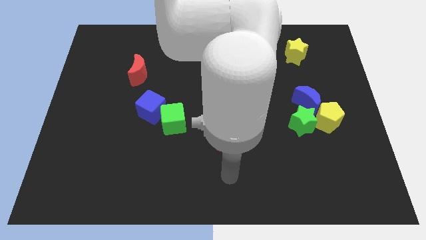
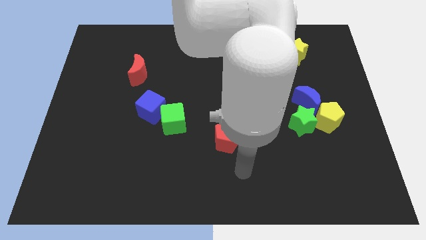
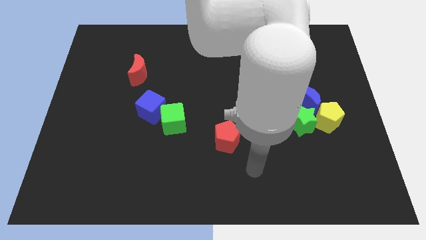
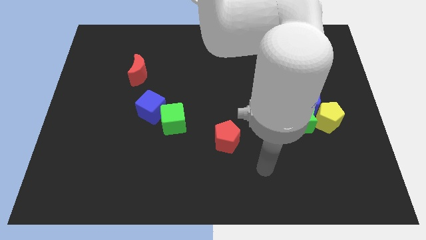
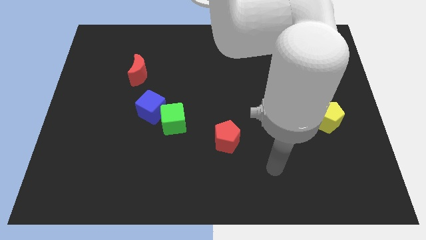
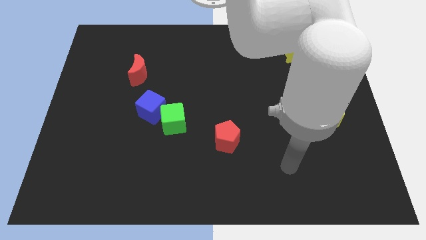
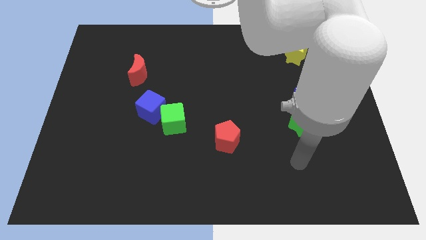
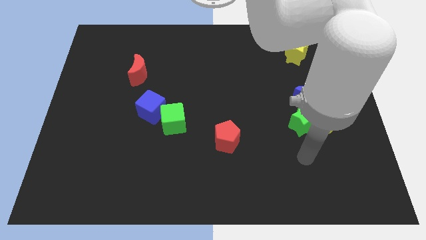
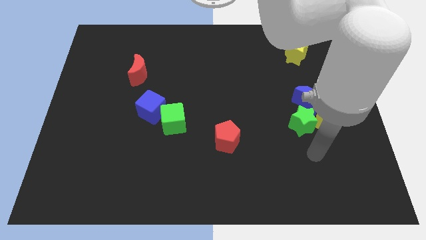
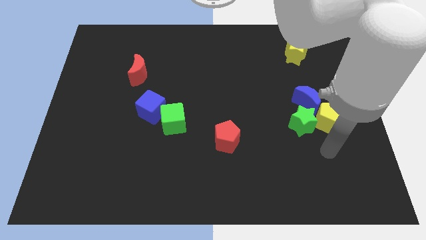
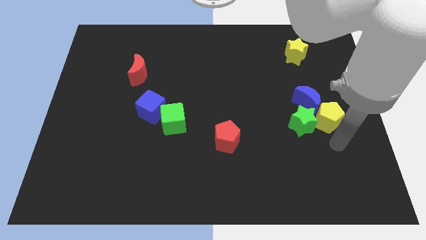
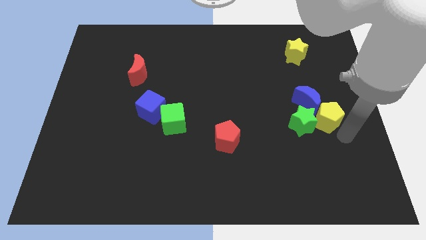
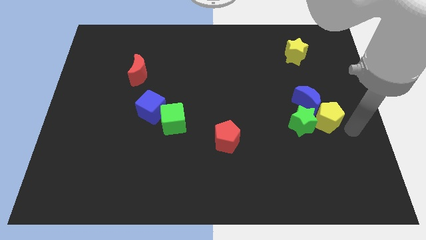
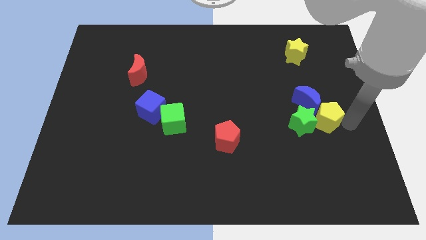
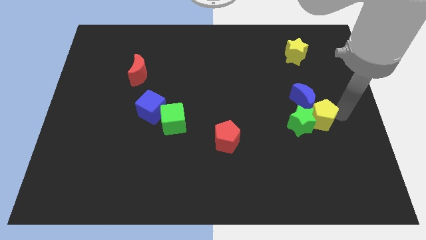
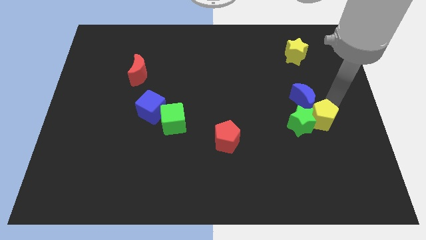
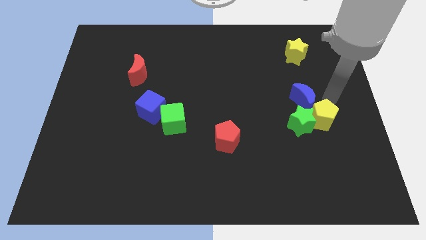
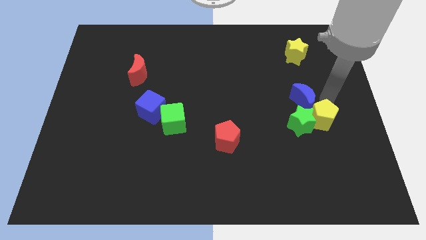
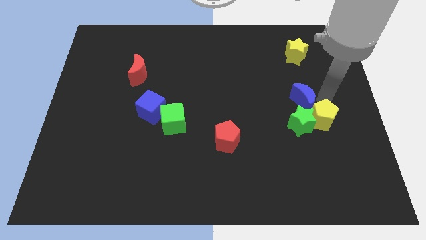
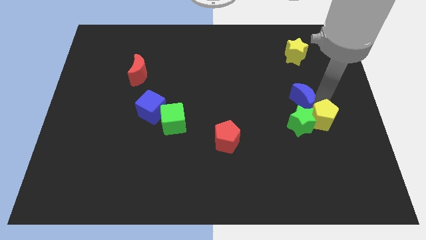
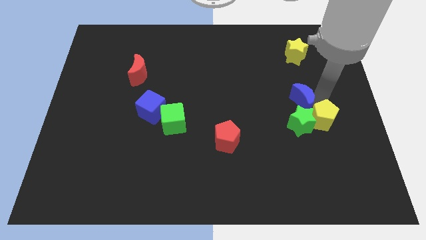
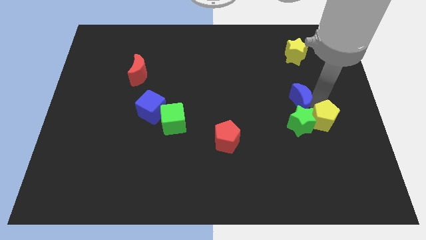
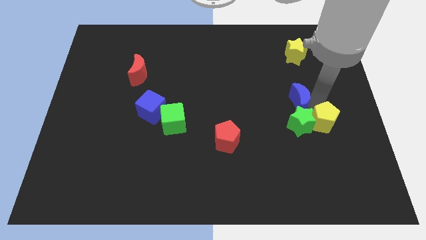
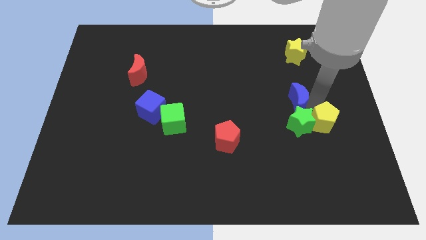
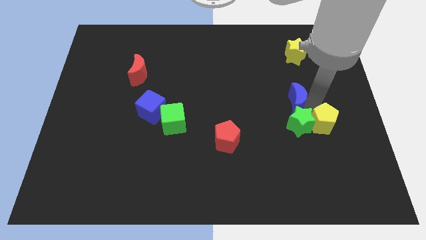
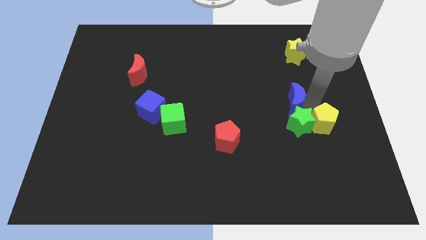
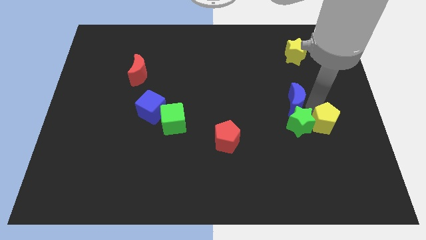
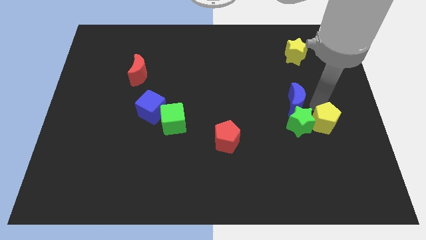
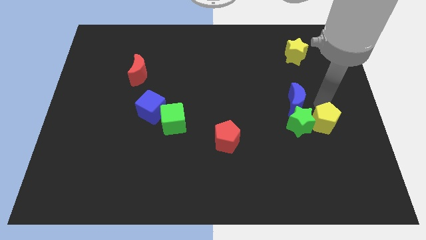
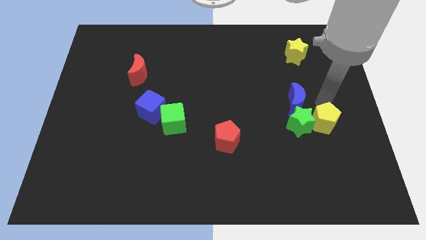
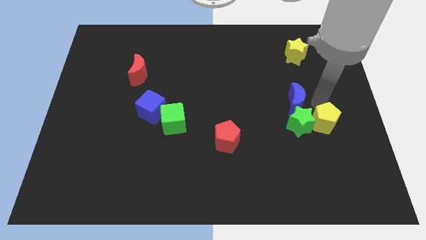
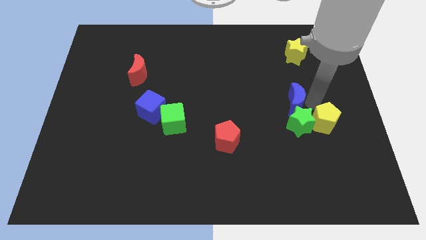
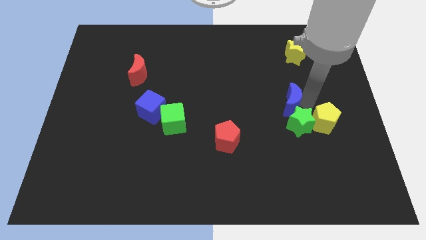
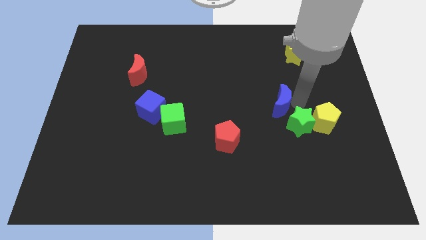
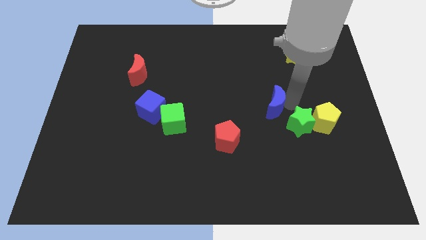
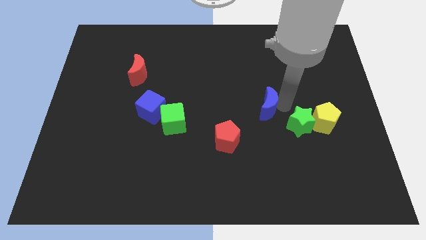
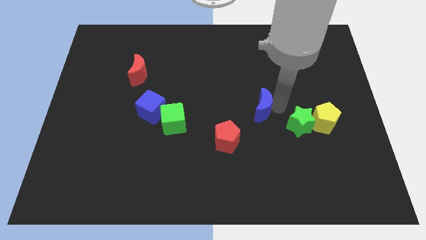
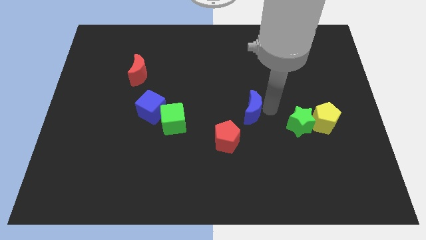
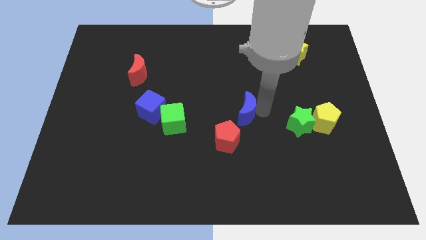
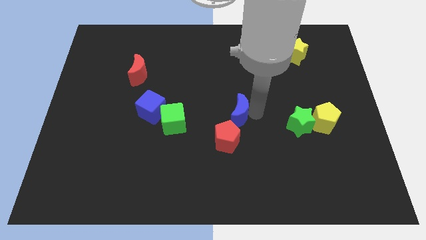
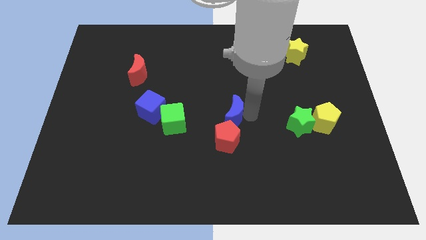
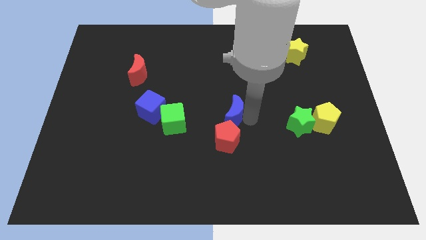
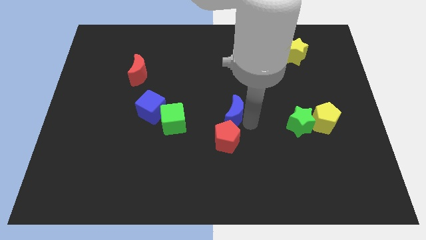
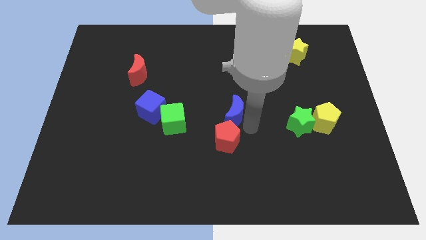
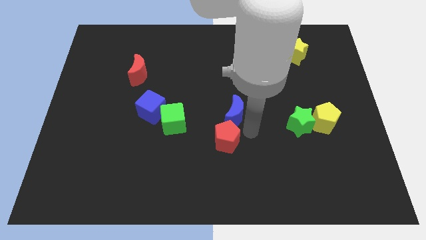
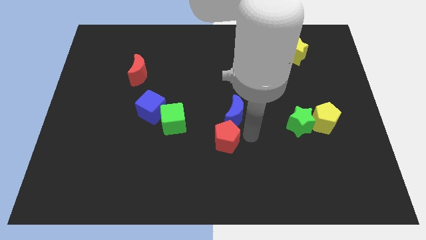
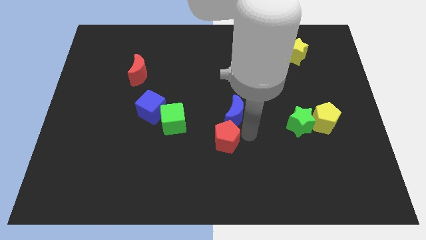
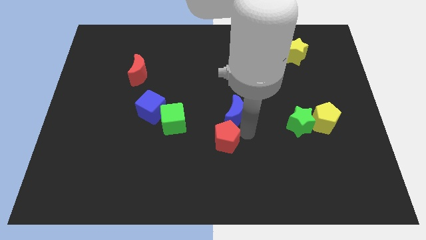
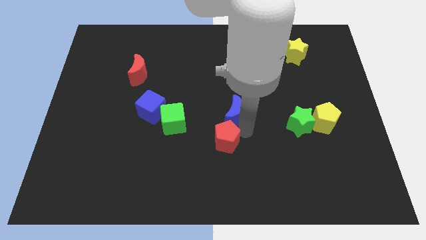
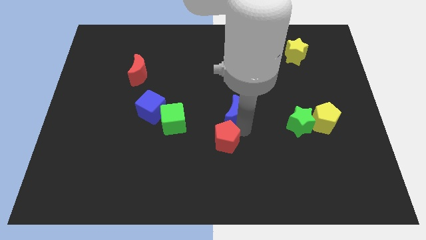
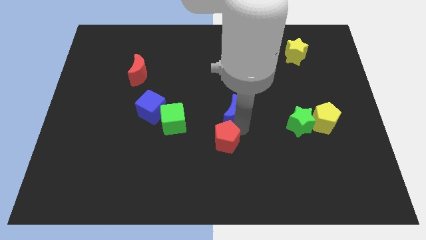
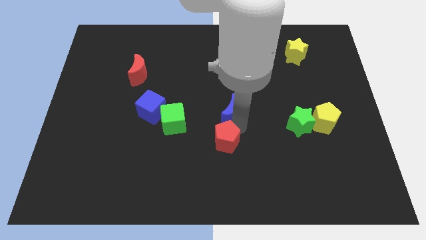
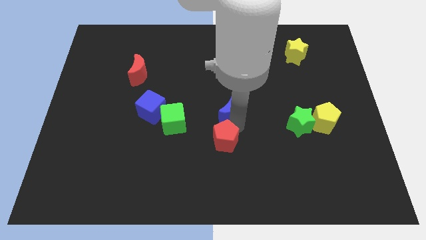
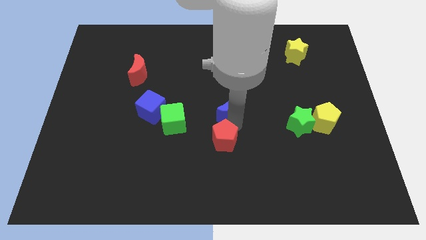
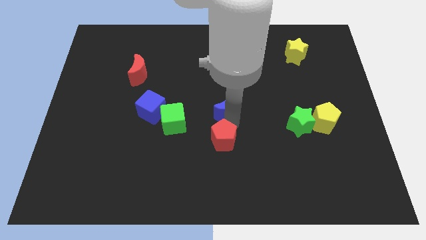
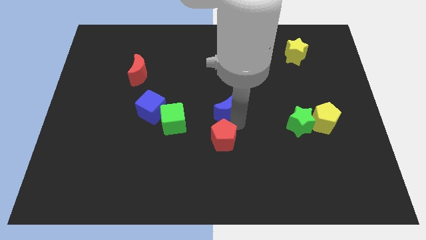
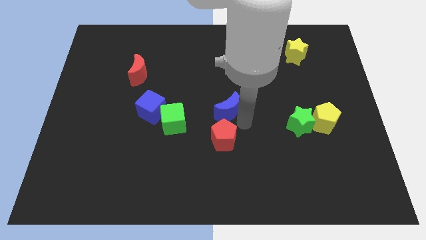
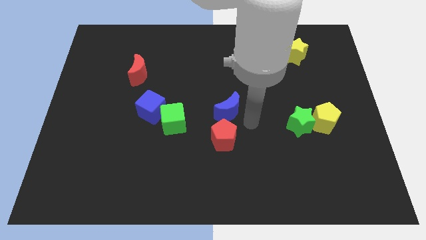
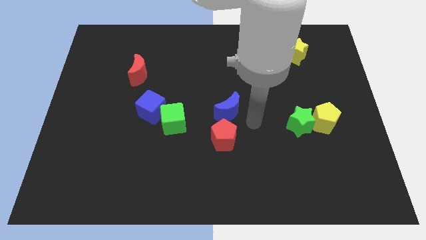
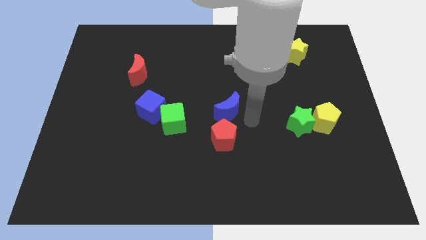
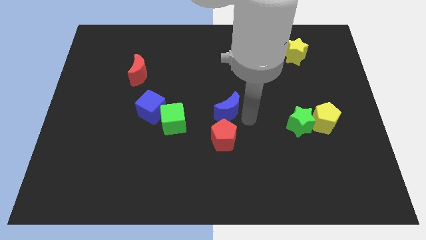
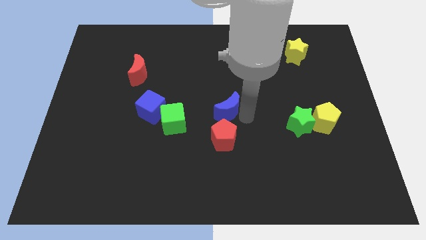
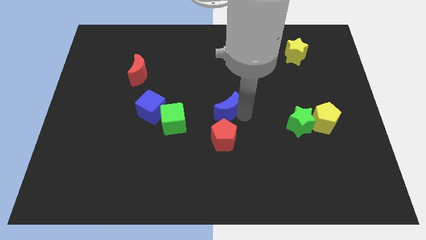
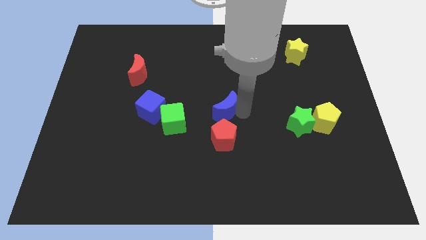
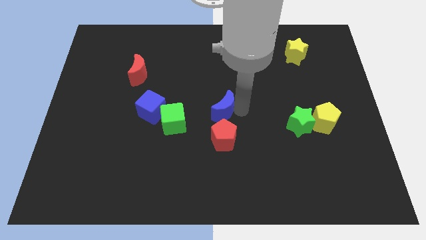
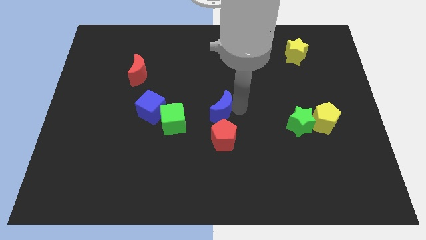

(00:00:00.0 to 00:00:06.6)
push the blue moon to the left

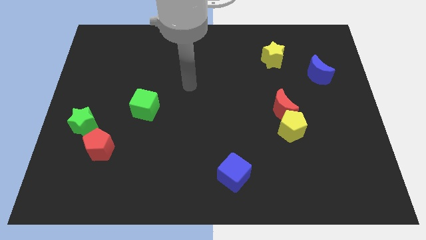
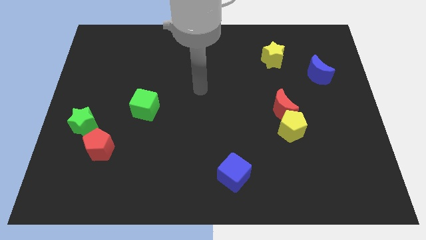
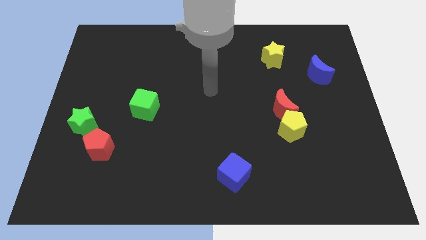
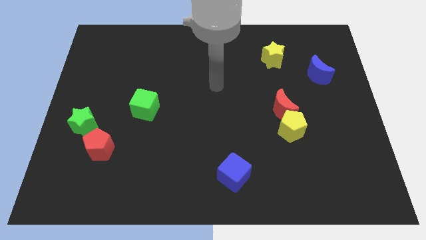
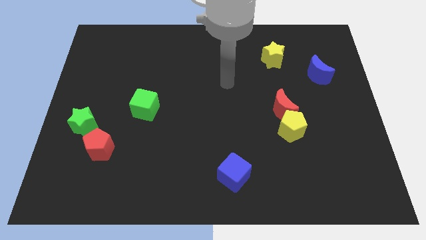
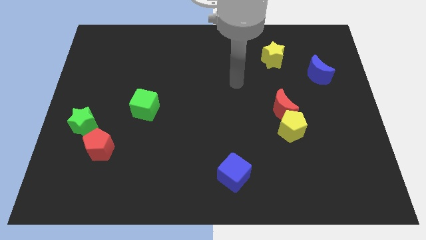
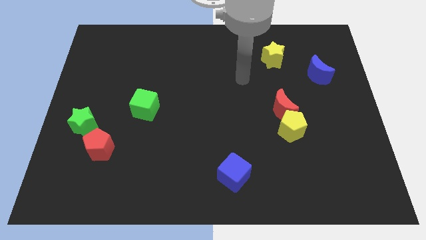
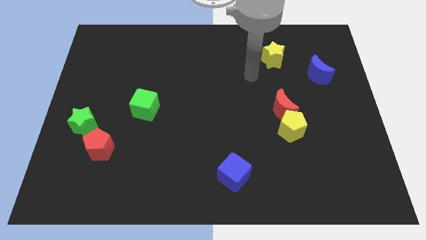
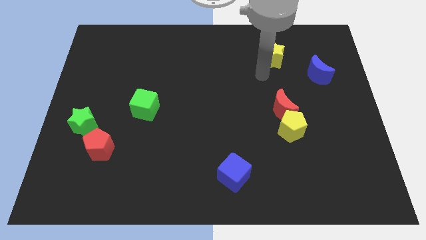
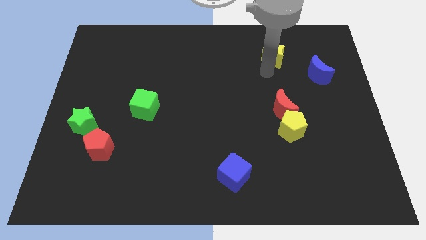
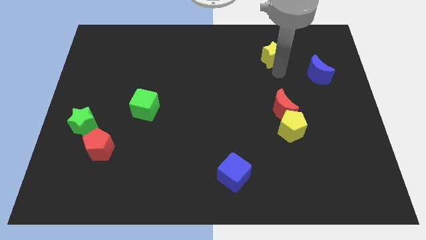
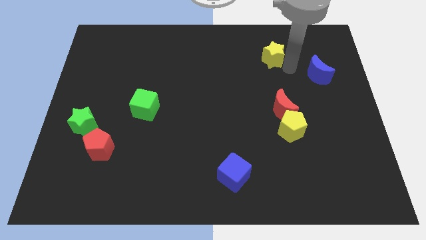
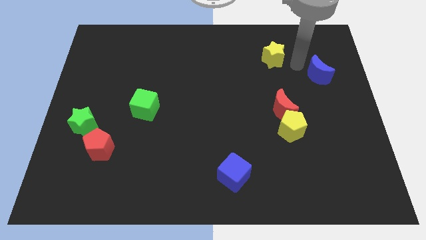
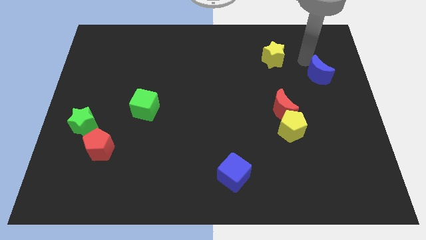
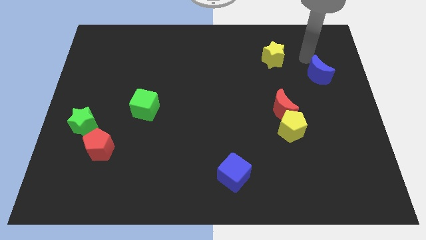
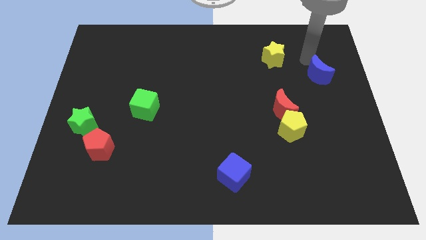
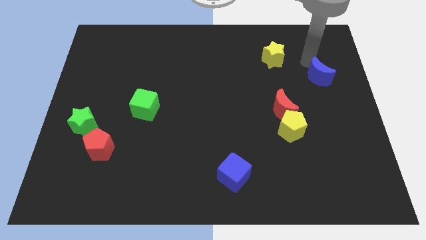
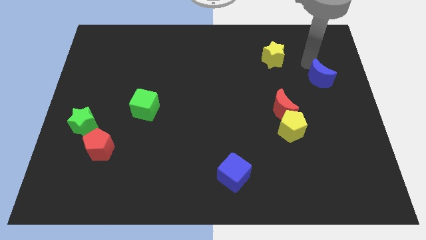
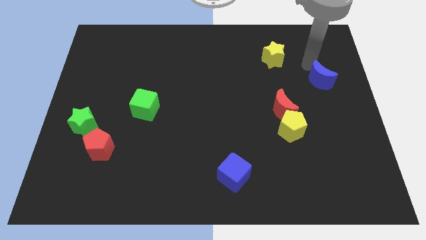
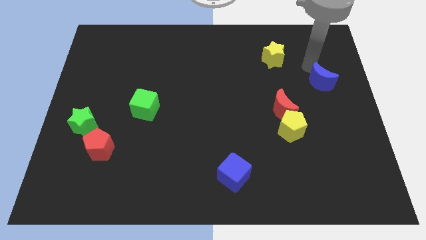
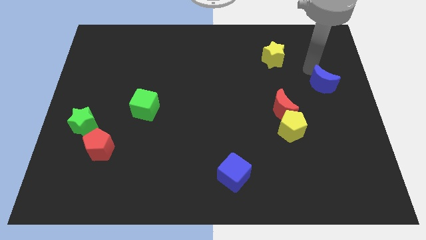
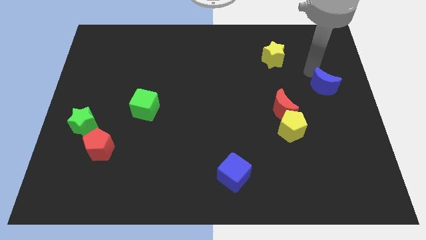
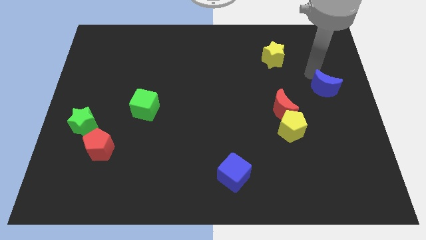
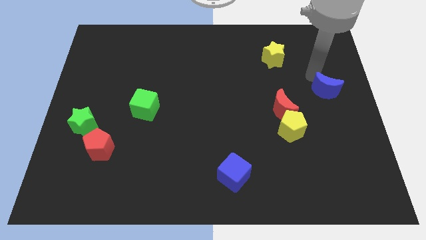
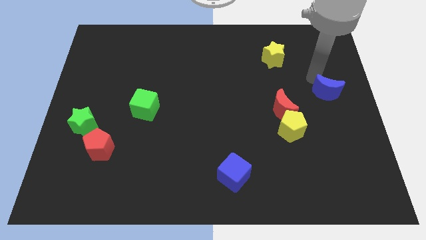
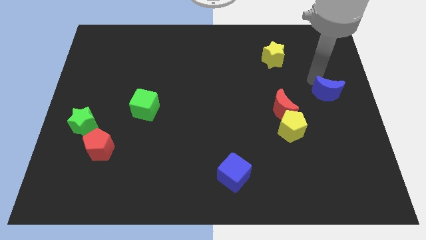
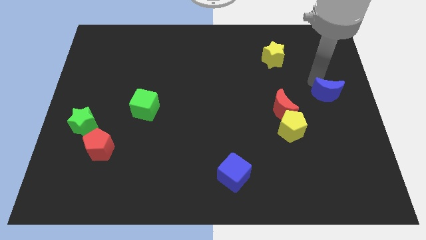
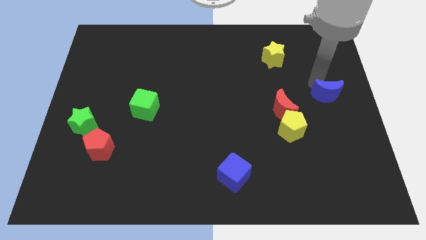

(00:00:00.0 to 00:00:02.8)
slightly push the blue moon down
